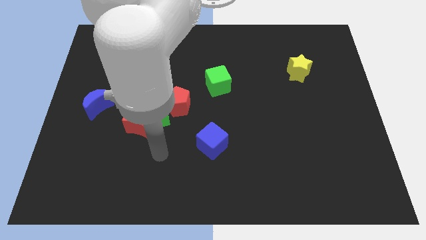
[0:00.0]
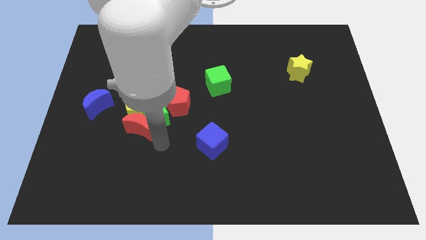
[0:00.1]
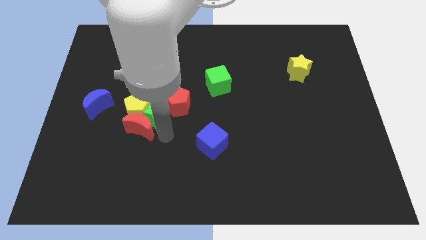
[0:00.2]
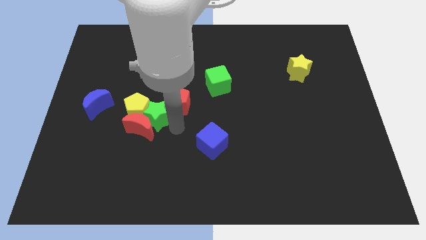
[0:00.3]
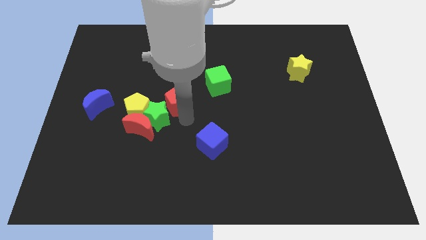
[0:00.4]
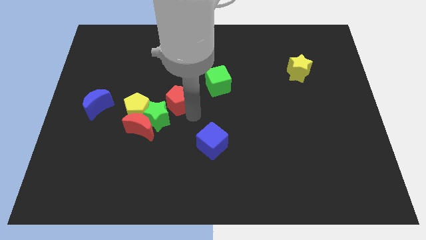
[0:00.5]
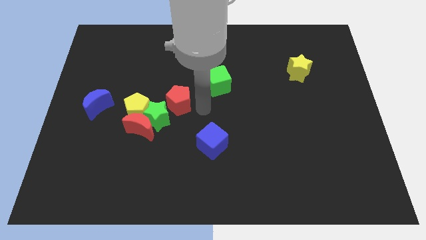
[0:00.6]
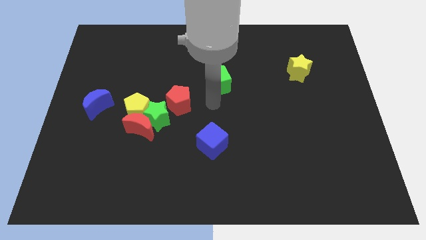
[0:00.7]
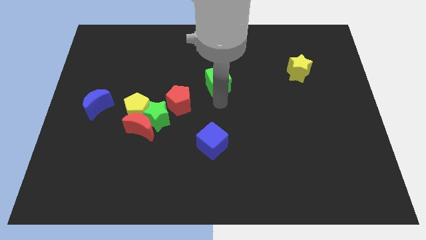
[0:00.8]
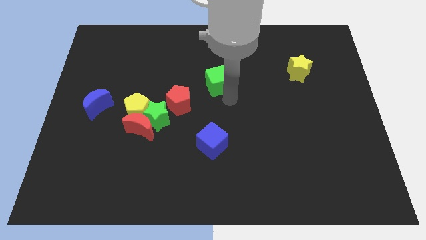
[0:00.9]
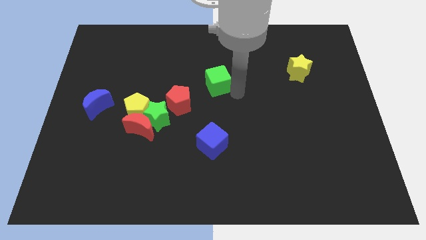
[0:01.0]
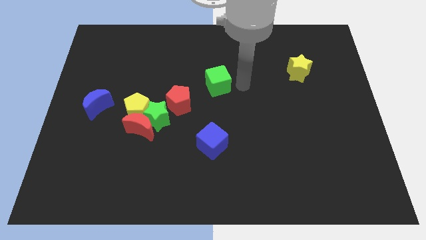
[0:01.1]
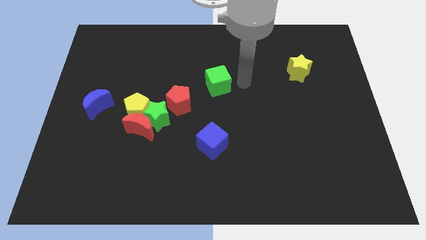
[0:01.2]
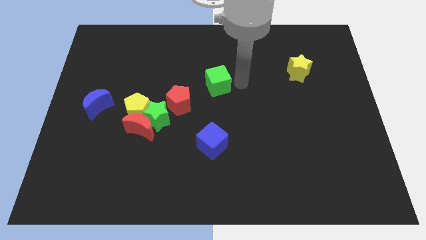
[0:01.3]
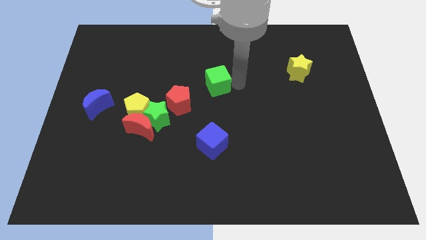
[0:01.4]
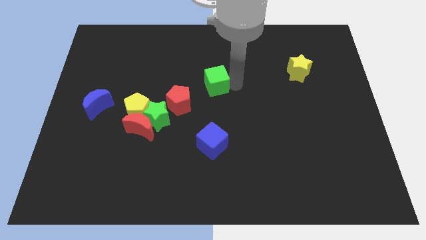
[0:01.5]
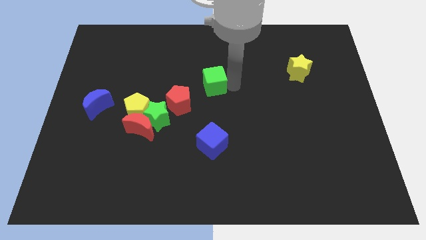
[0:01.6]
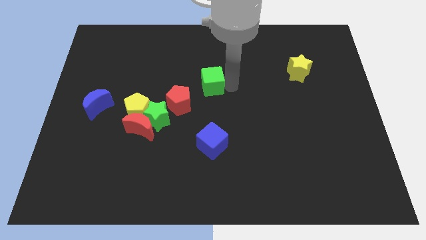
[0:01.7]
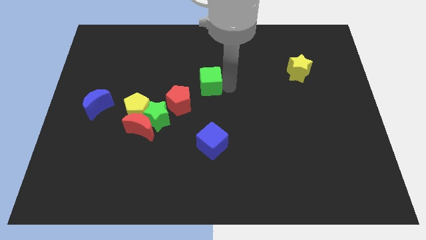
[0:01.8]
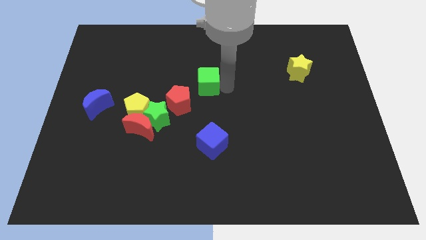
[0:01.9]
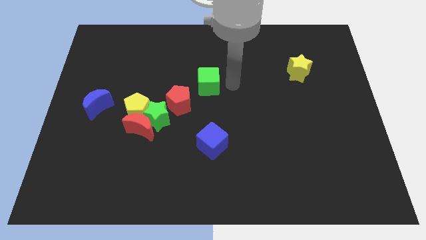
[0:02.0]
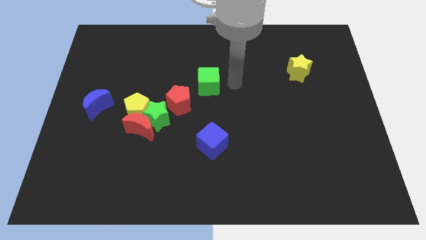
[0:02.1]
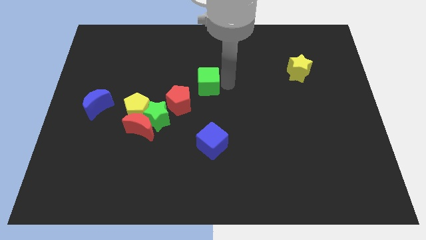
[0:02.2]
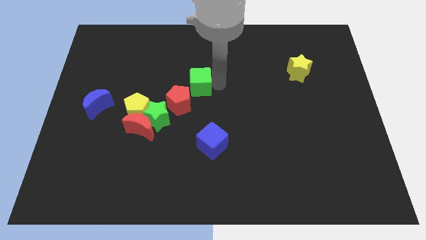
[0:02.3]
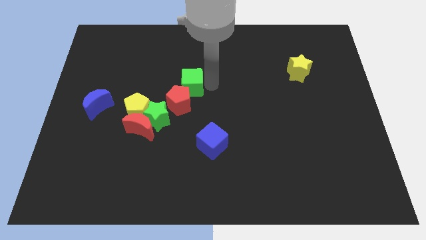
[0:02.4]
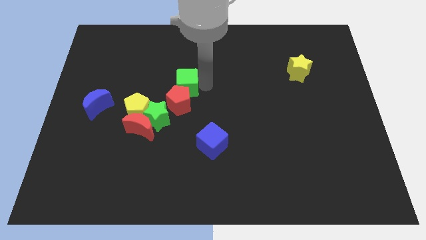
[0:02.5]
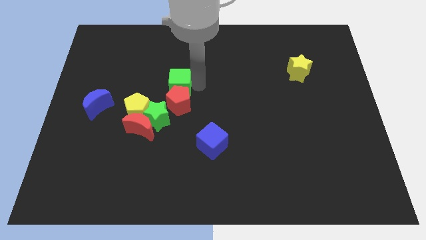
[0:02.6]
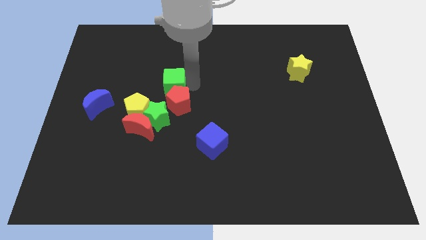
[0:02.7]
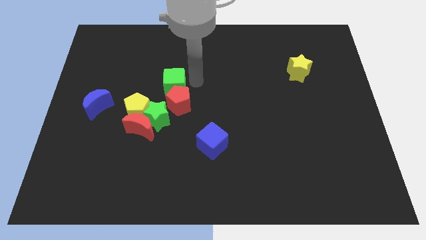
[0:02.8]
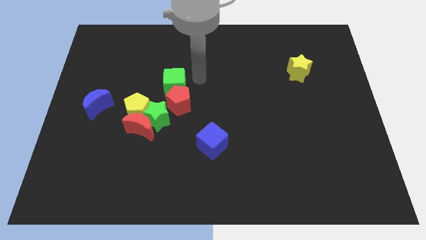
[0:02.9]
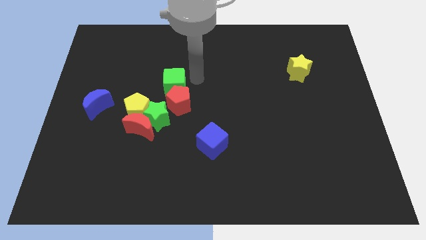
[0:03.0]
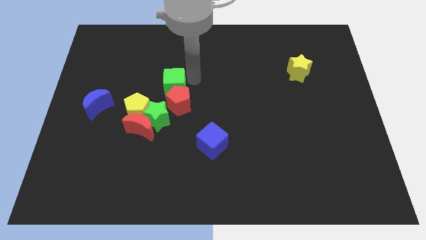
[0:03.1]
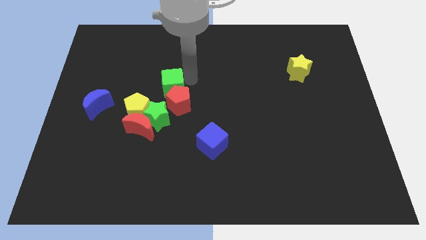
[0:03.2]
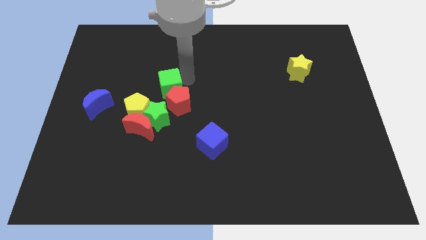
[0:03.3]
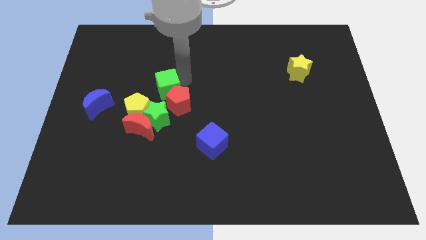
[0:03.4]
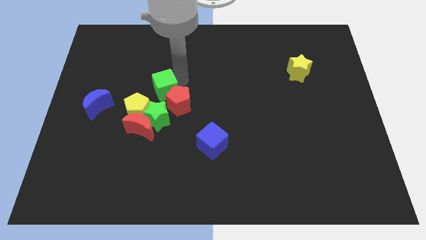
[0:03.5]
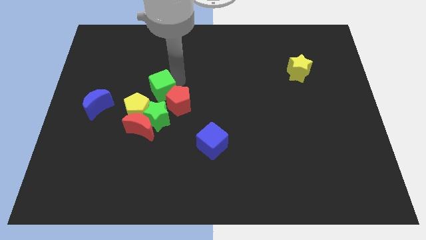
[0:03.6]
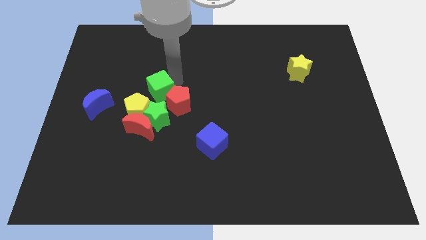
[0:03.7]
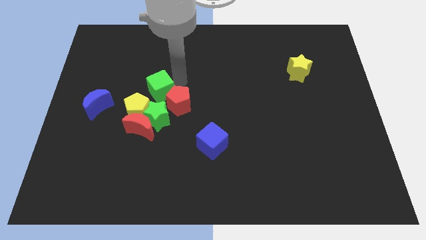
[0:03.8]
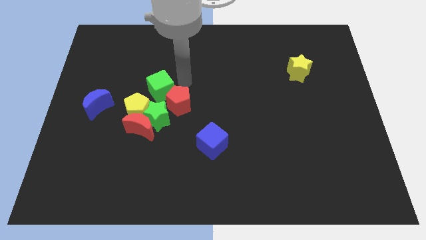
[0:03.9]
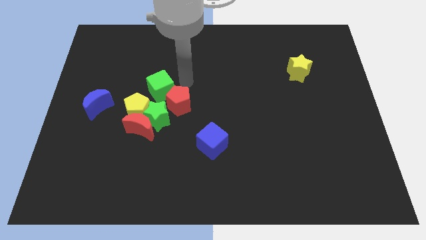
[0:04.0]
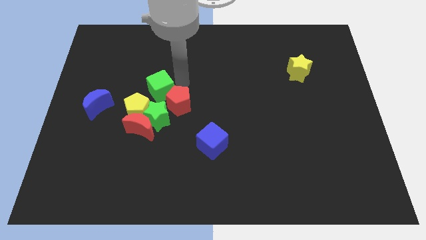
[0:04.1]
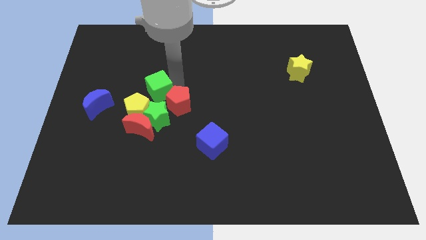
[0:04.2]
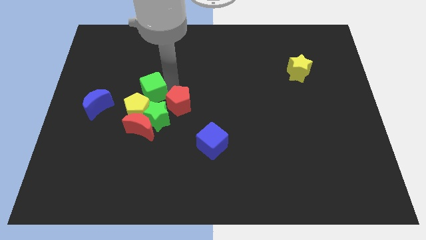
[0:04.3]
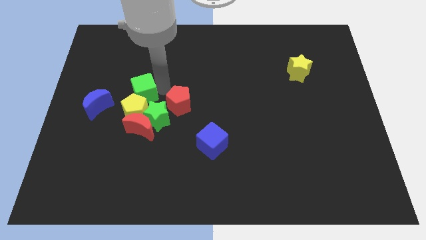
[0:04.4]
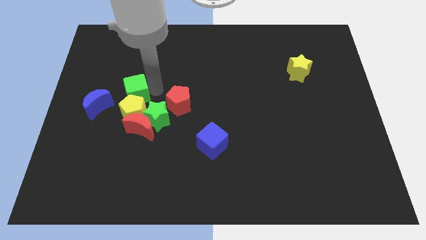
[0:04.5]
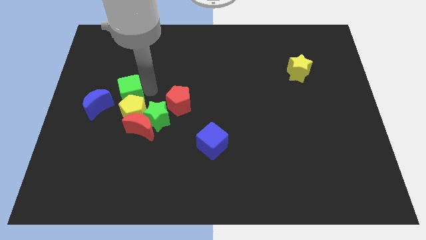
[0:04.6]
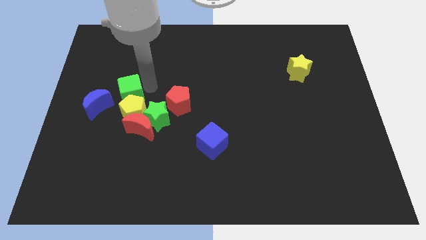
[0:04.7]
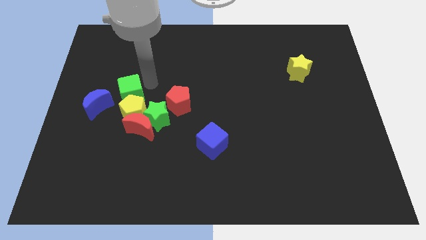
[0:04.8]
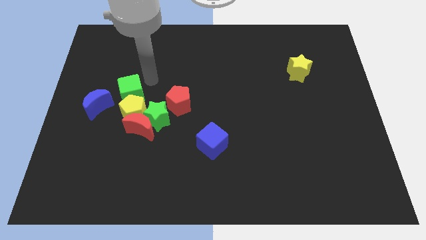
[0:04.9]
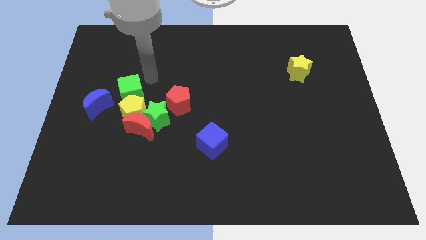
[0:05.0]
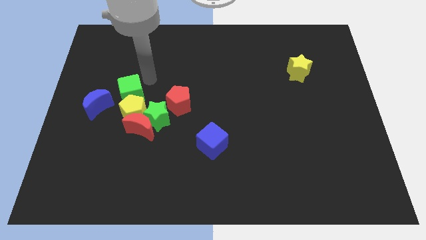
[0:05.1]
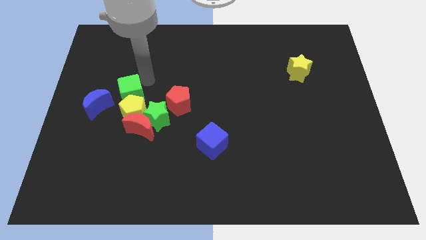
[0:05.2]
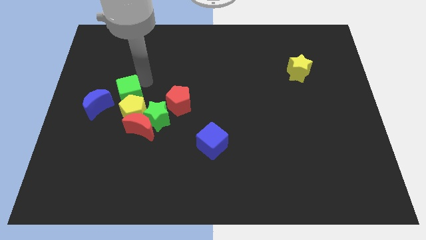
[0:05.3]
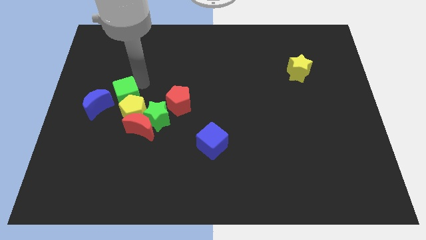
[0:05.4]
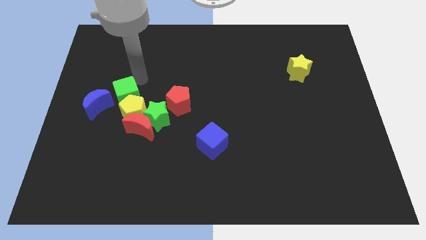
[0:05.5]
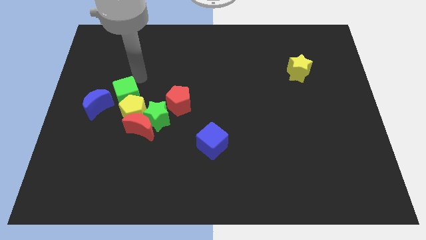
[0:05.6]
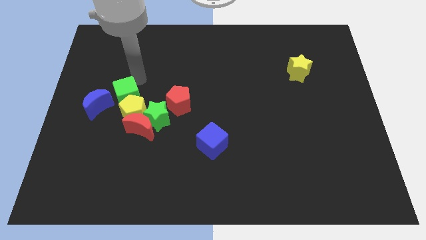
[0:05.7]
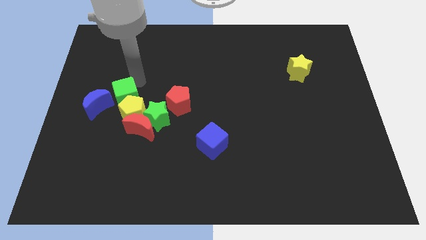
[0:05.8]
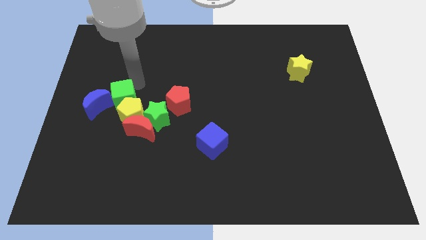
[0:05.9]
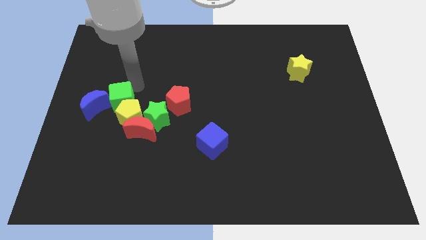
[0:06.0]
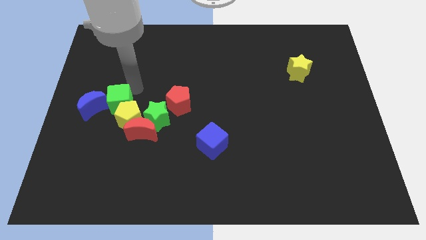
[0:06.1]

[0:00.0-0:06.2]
put the green cube left of the green star
